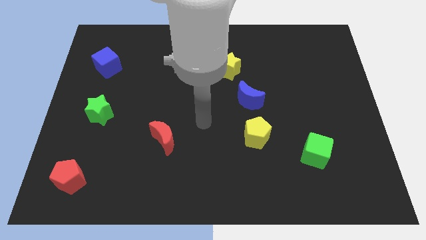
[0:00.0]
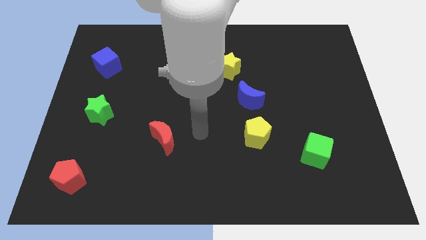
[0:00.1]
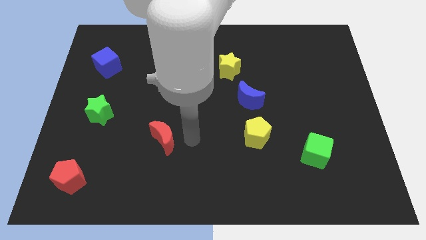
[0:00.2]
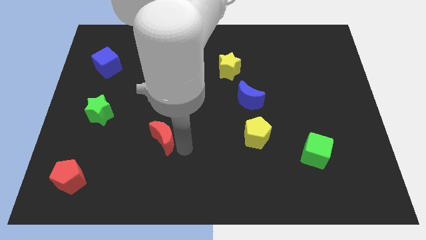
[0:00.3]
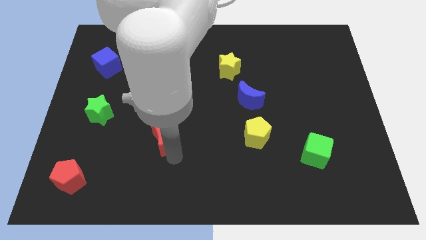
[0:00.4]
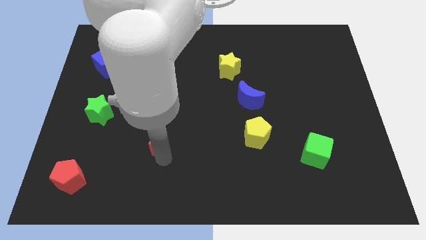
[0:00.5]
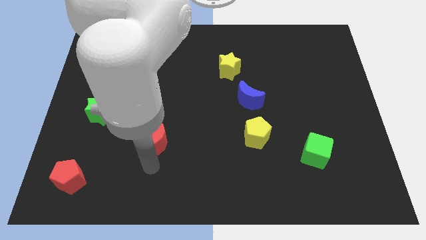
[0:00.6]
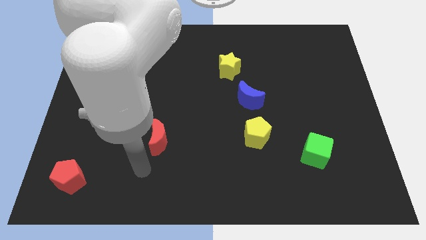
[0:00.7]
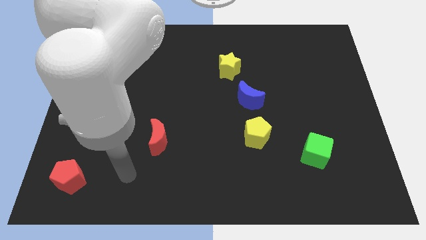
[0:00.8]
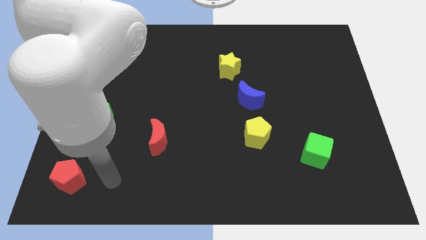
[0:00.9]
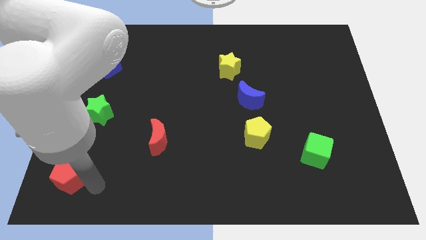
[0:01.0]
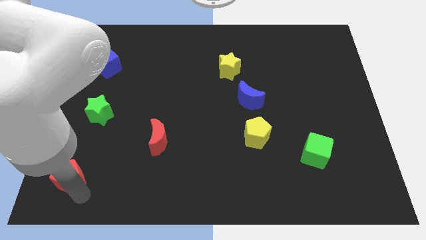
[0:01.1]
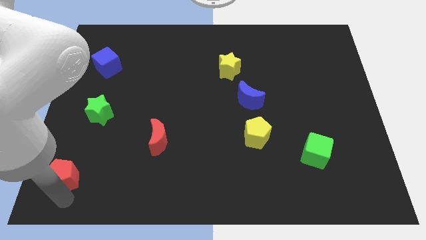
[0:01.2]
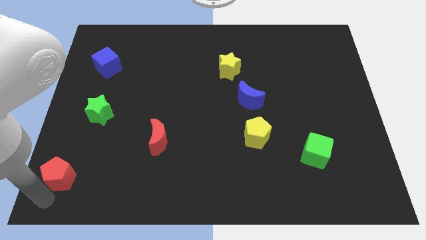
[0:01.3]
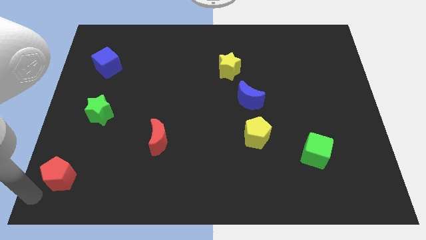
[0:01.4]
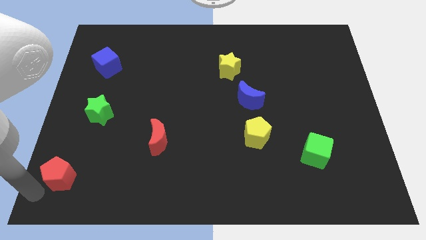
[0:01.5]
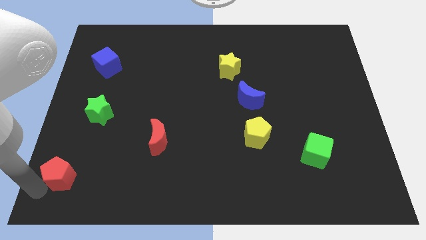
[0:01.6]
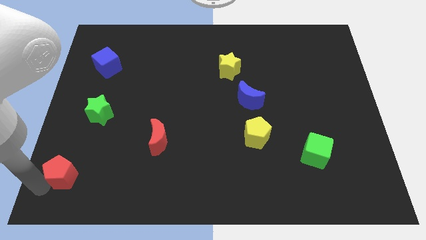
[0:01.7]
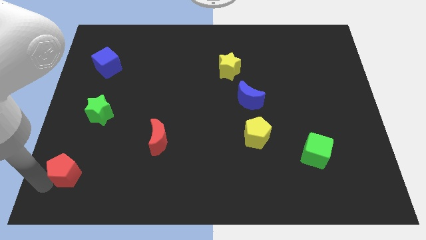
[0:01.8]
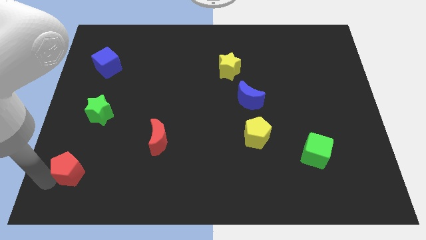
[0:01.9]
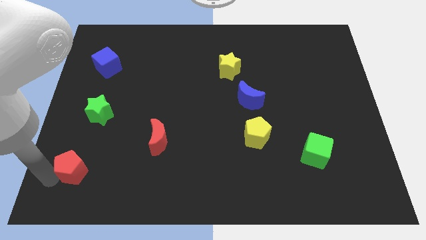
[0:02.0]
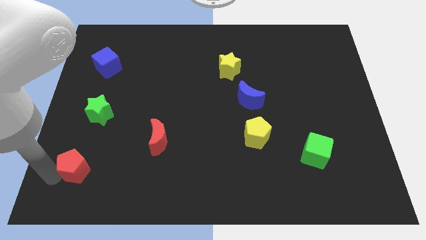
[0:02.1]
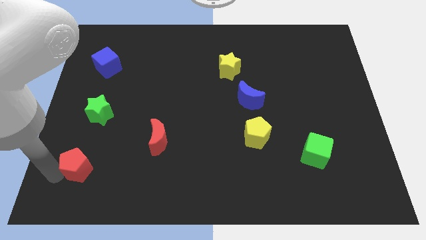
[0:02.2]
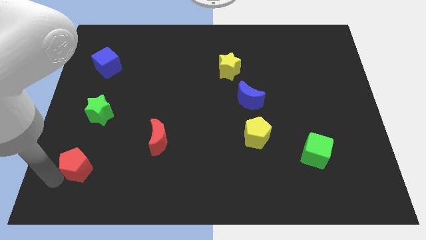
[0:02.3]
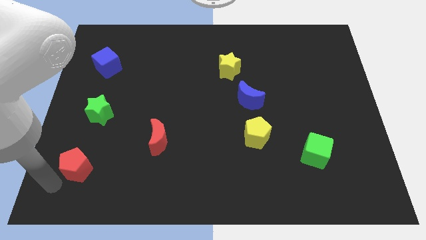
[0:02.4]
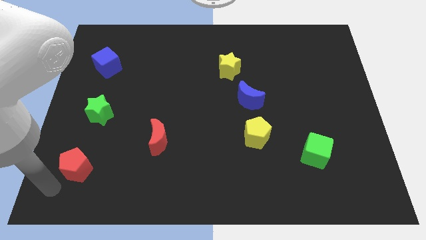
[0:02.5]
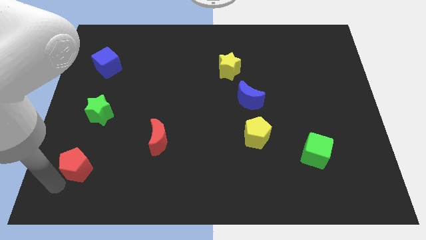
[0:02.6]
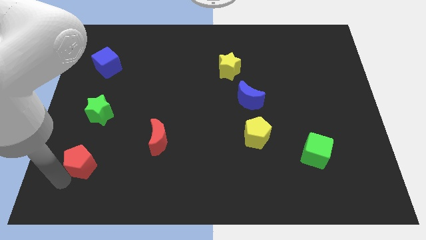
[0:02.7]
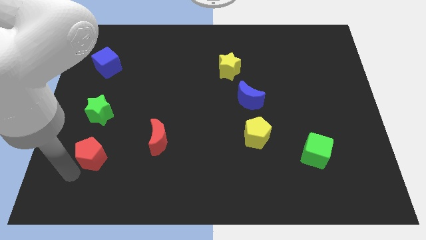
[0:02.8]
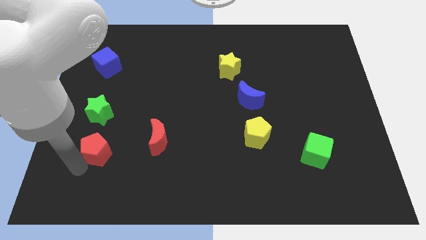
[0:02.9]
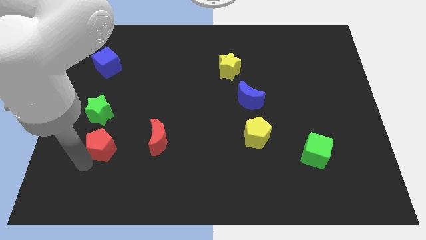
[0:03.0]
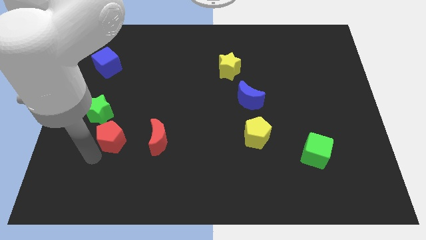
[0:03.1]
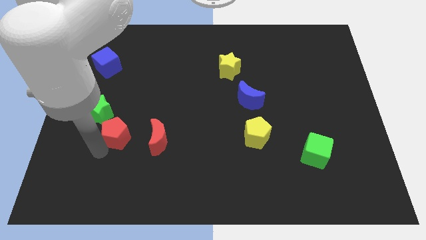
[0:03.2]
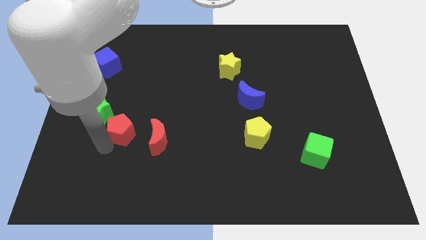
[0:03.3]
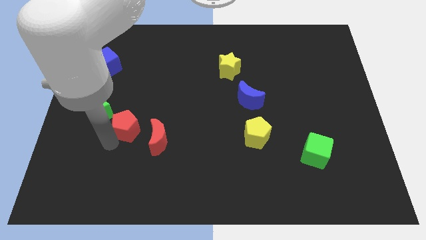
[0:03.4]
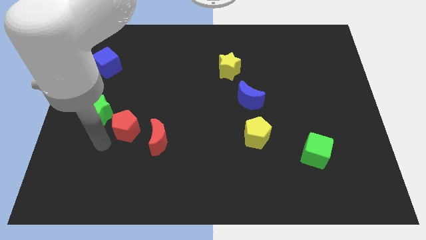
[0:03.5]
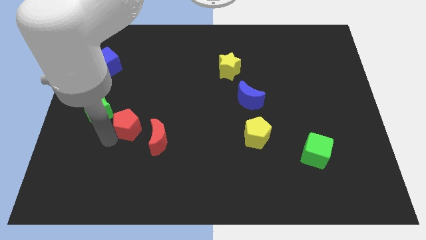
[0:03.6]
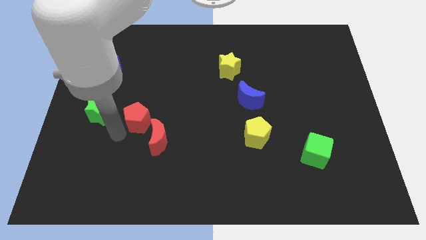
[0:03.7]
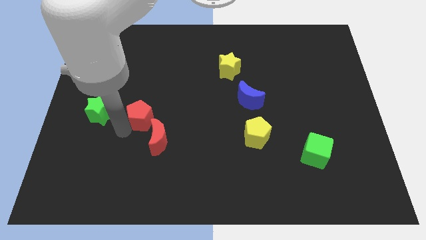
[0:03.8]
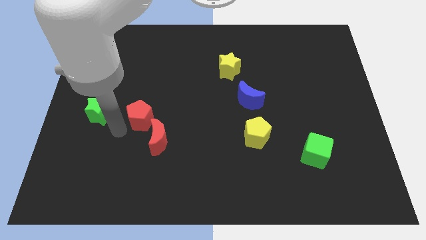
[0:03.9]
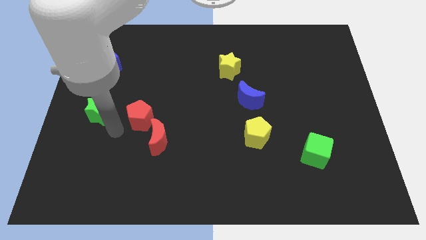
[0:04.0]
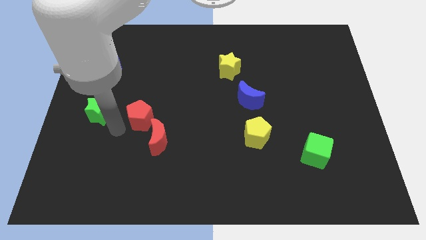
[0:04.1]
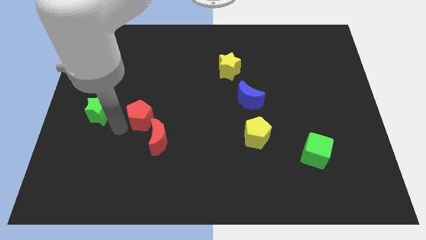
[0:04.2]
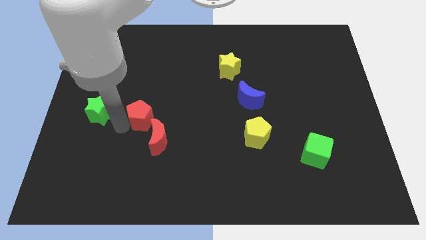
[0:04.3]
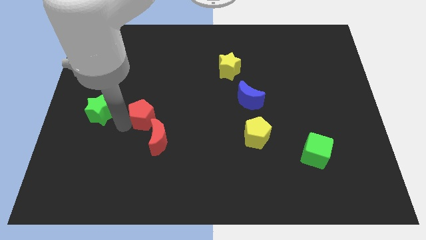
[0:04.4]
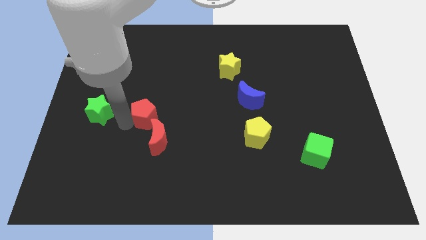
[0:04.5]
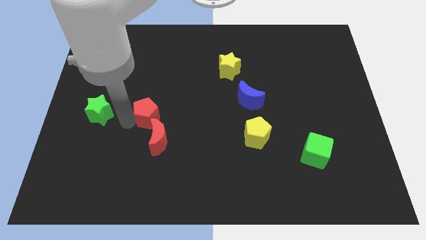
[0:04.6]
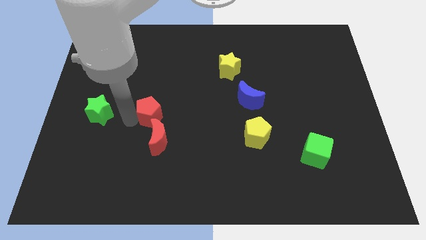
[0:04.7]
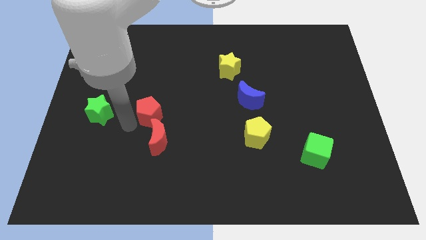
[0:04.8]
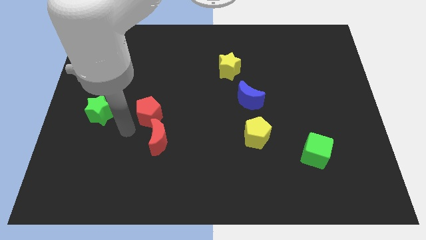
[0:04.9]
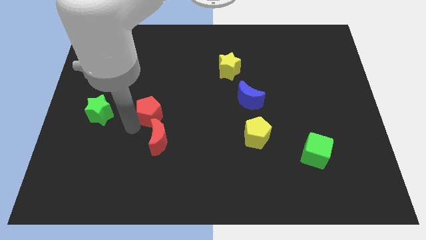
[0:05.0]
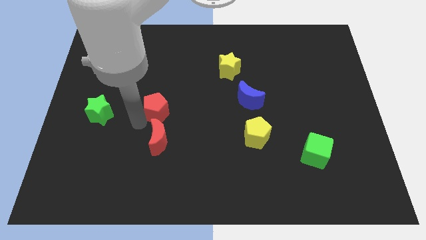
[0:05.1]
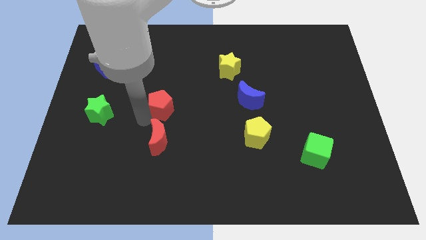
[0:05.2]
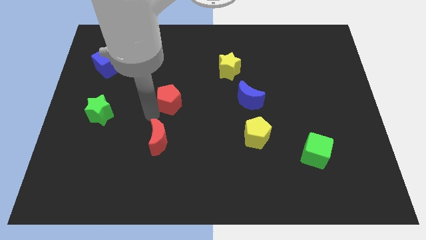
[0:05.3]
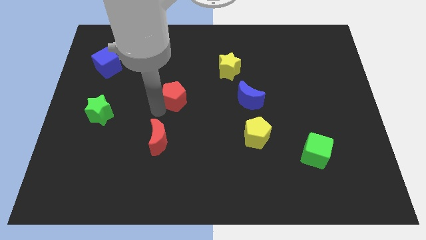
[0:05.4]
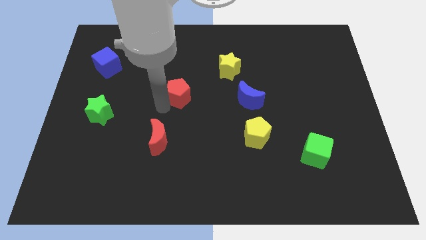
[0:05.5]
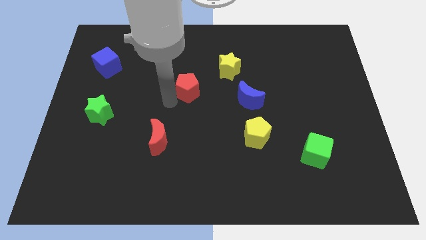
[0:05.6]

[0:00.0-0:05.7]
put the red pentagon to the bottom left of the yellow star

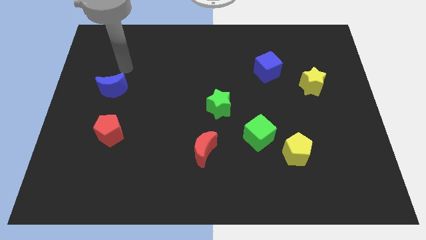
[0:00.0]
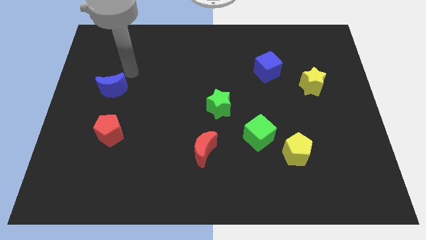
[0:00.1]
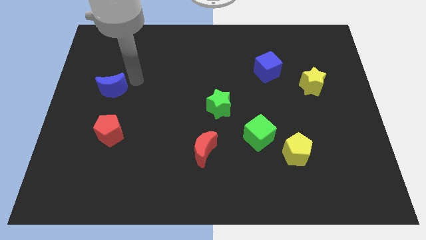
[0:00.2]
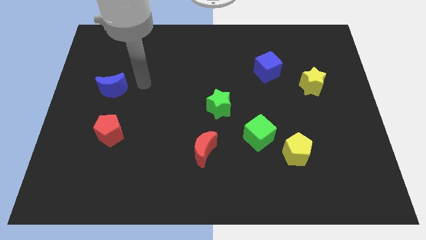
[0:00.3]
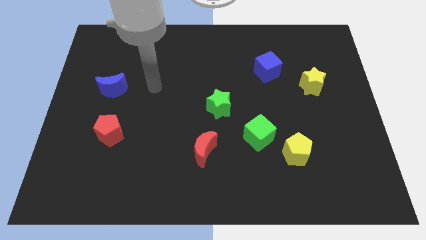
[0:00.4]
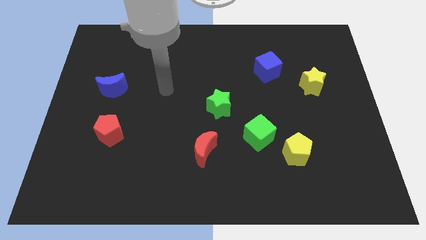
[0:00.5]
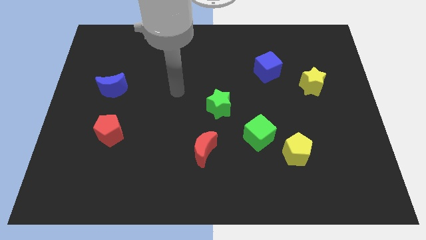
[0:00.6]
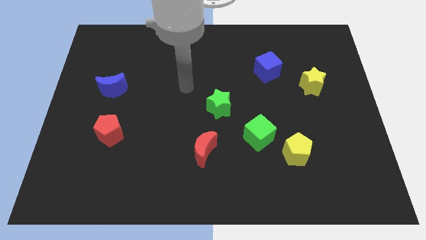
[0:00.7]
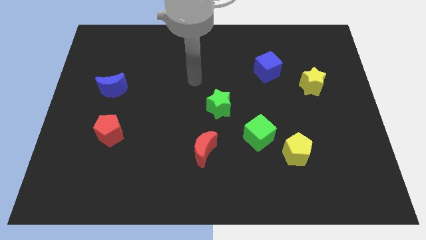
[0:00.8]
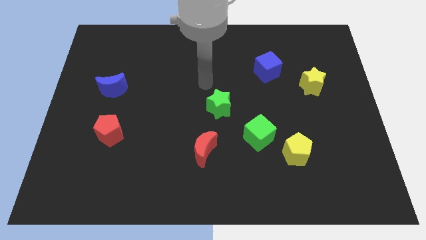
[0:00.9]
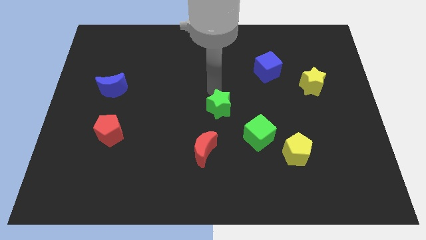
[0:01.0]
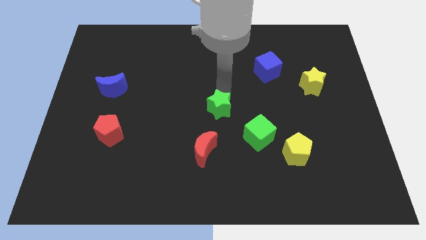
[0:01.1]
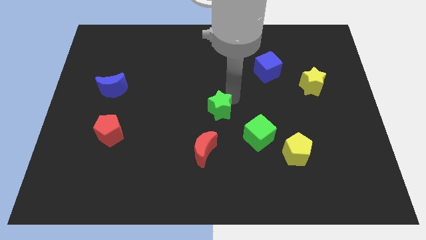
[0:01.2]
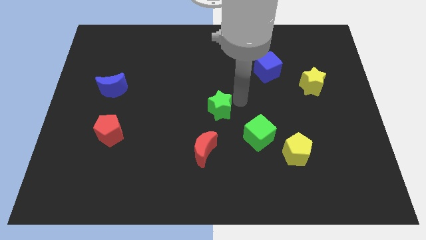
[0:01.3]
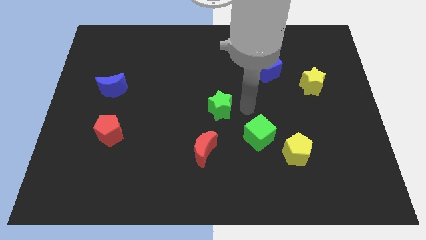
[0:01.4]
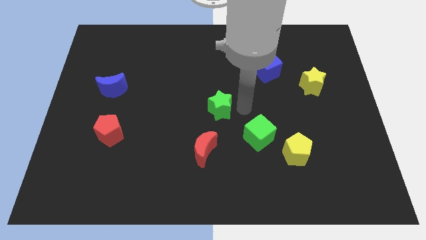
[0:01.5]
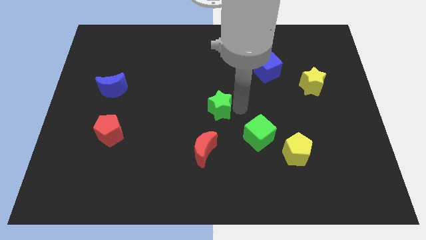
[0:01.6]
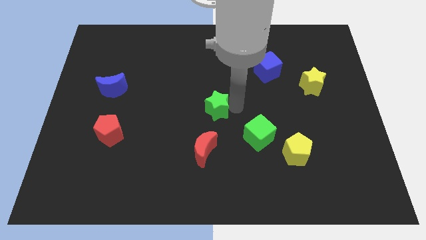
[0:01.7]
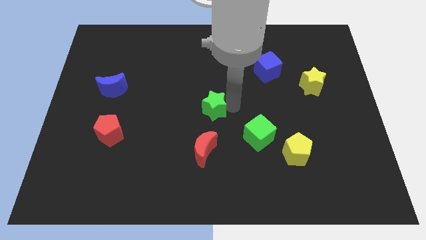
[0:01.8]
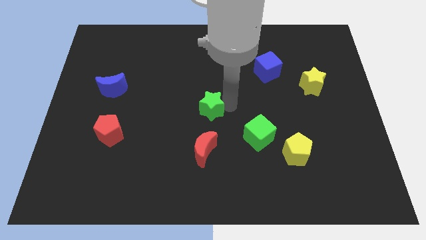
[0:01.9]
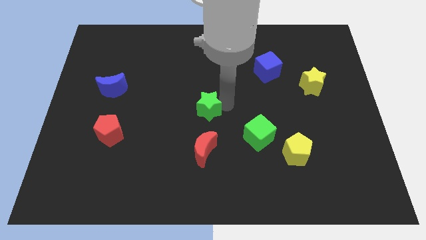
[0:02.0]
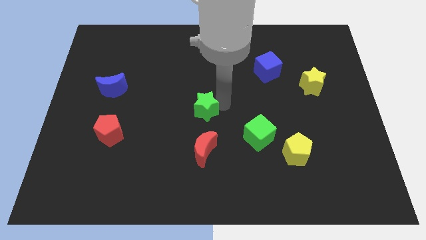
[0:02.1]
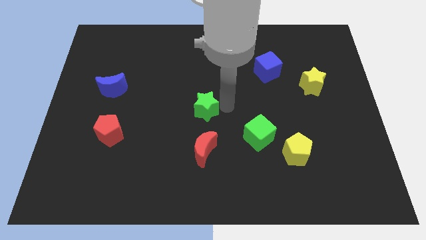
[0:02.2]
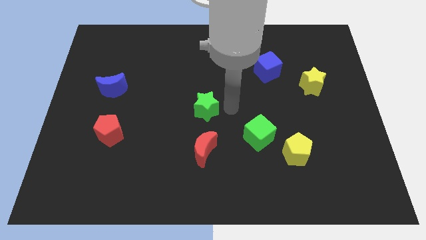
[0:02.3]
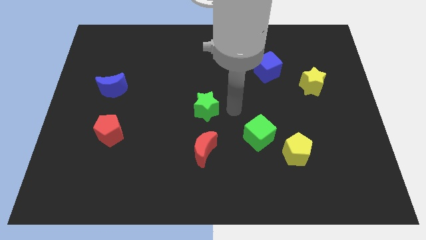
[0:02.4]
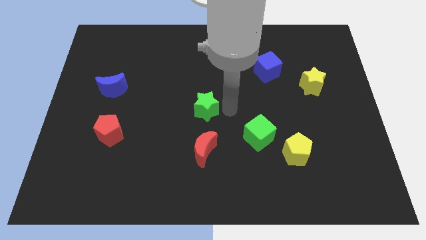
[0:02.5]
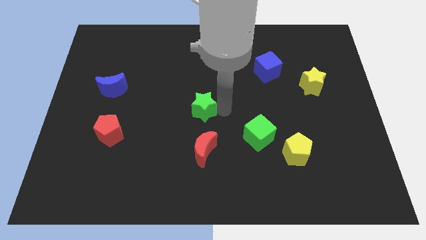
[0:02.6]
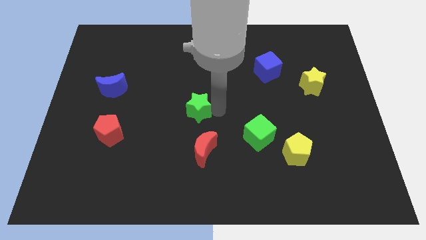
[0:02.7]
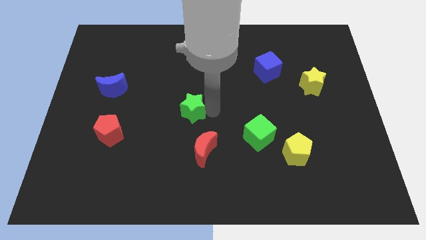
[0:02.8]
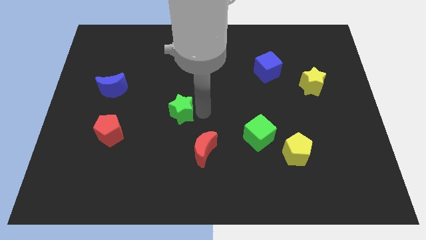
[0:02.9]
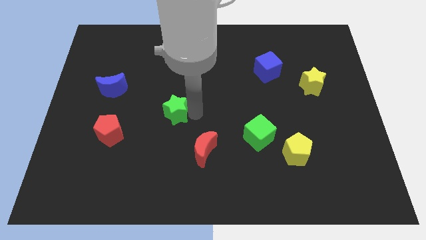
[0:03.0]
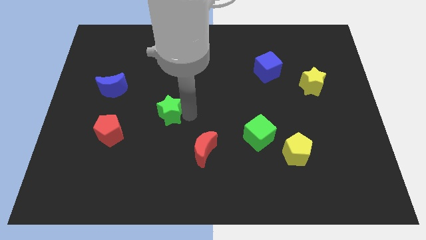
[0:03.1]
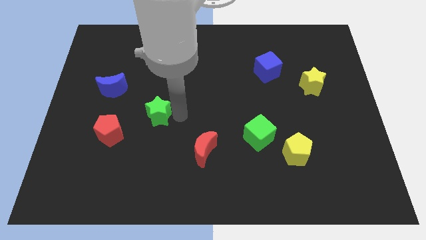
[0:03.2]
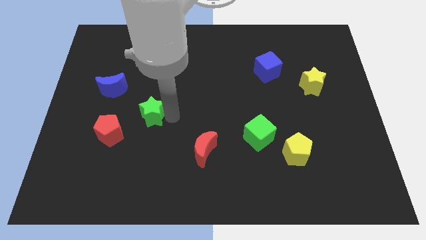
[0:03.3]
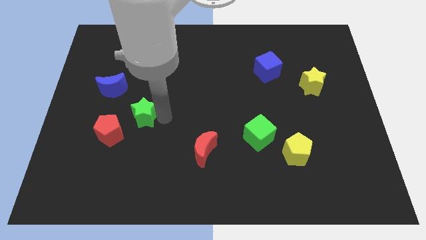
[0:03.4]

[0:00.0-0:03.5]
slide the green star to the bottom right side of the blue moon
